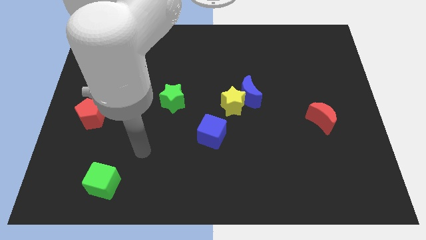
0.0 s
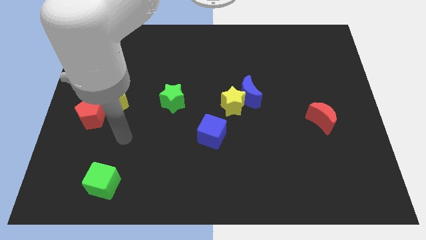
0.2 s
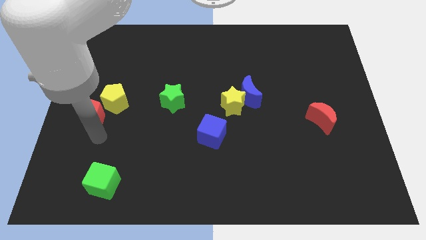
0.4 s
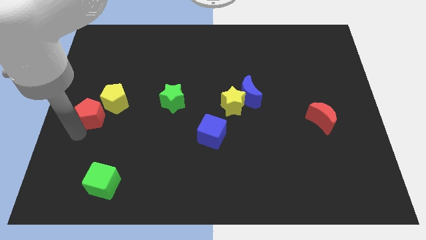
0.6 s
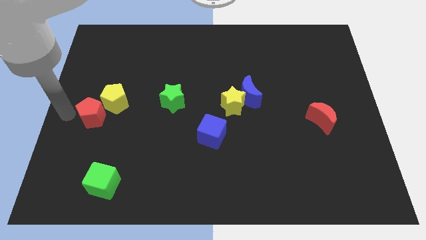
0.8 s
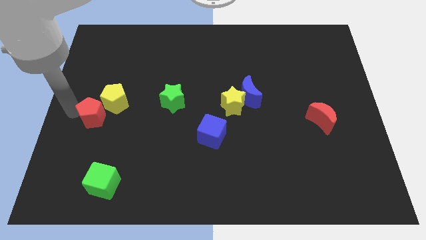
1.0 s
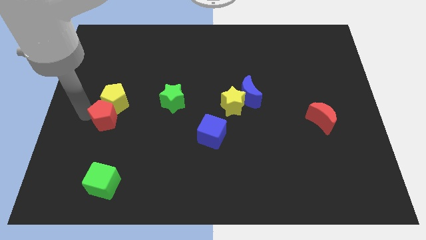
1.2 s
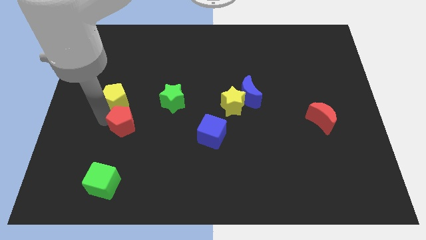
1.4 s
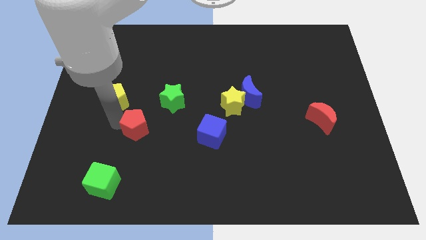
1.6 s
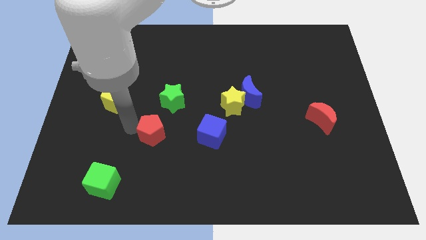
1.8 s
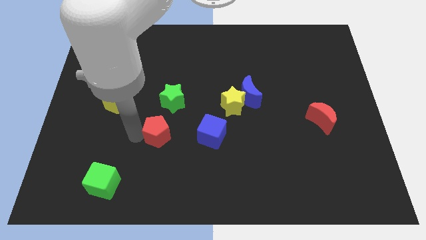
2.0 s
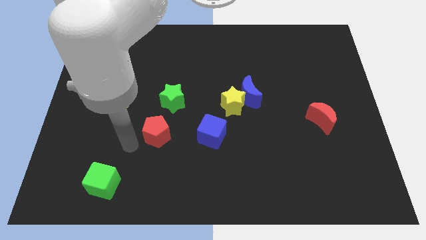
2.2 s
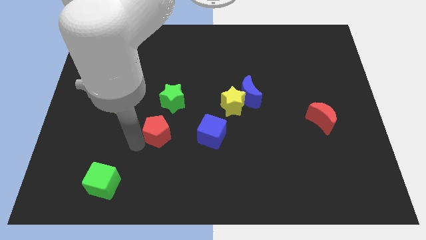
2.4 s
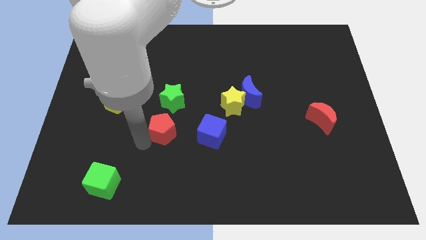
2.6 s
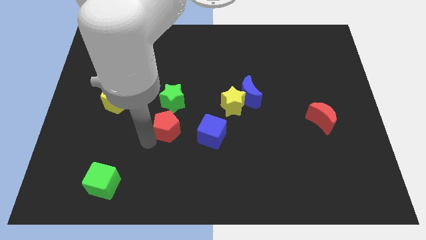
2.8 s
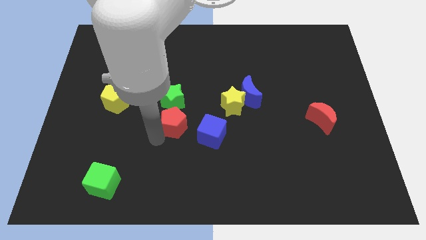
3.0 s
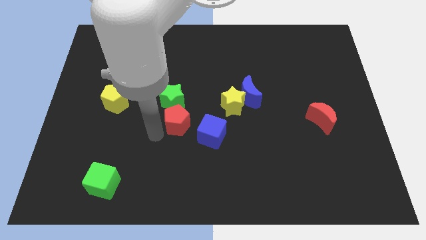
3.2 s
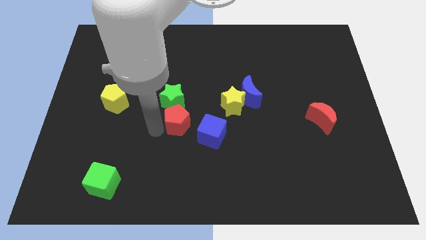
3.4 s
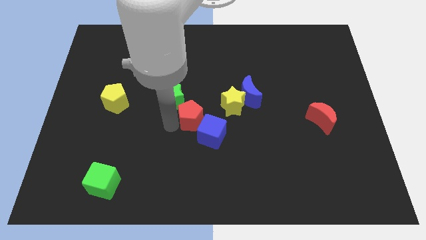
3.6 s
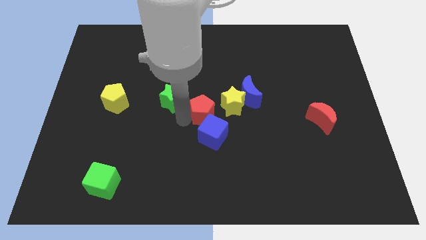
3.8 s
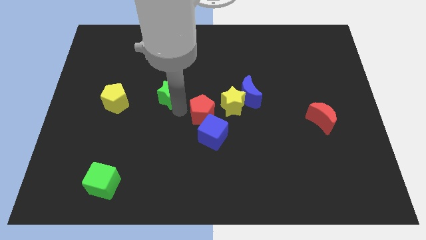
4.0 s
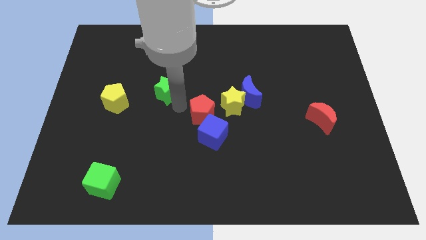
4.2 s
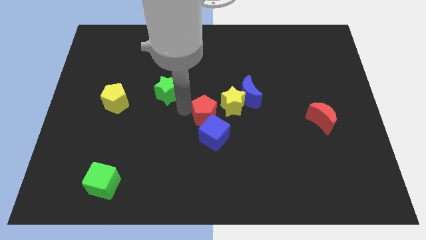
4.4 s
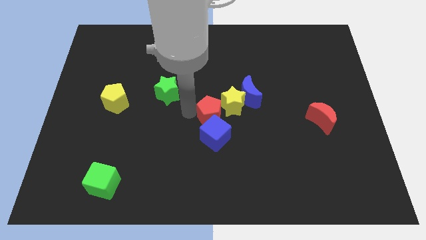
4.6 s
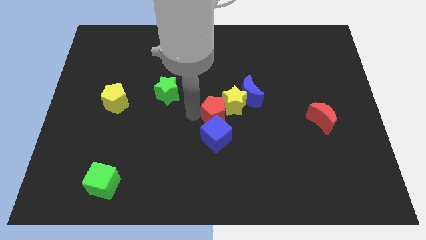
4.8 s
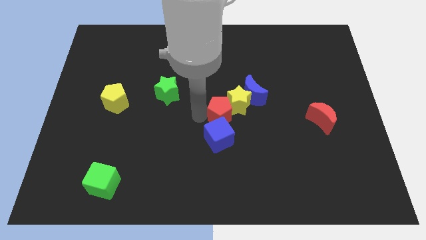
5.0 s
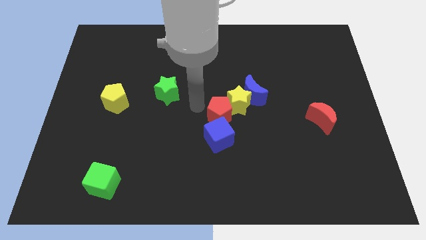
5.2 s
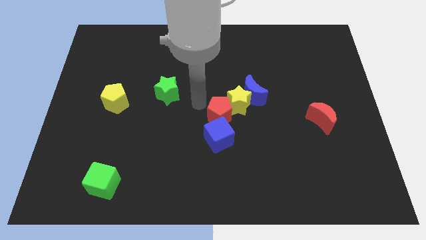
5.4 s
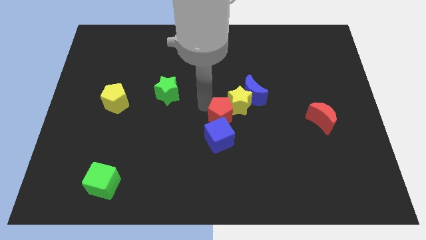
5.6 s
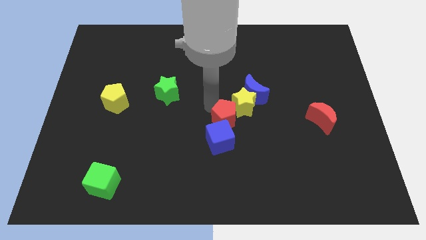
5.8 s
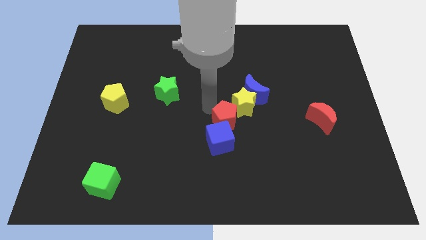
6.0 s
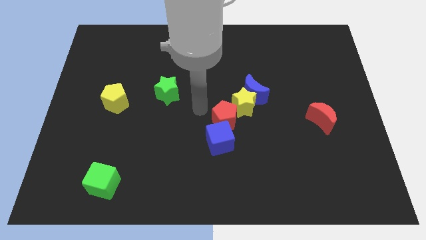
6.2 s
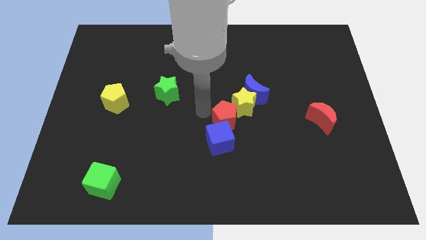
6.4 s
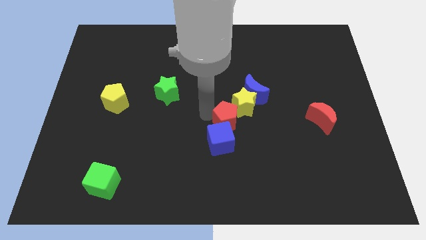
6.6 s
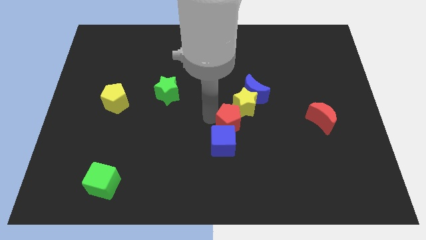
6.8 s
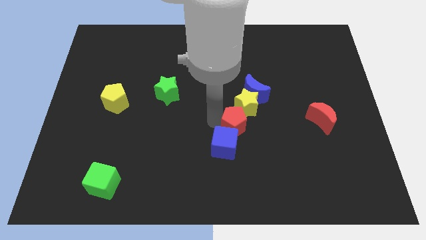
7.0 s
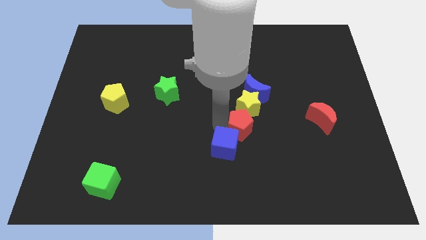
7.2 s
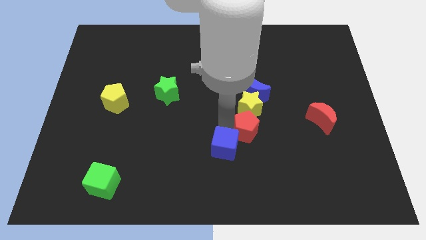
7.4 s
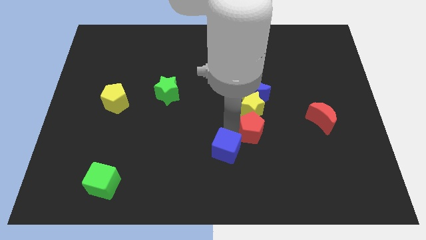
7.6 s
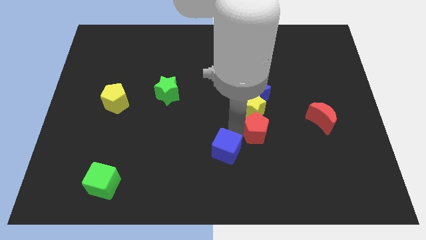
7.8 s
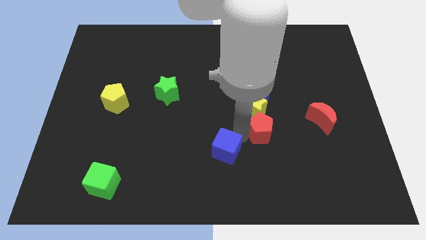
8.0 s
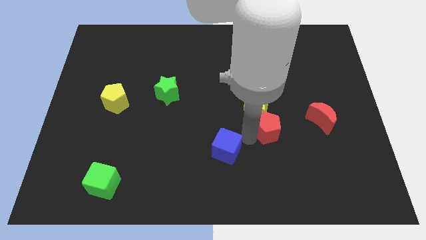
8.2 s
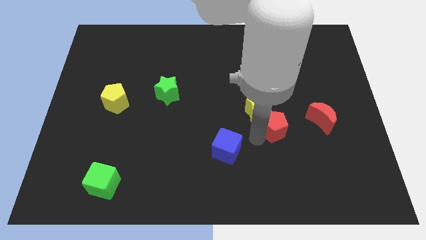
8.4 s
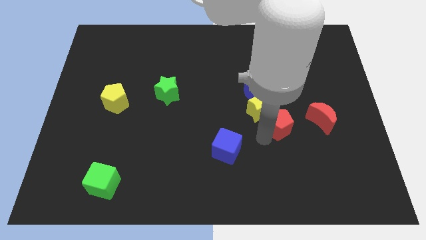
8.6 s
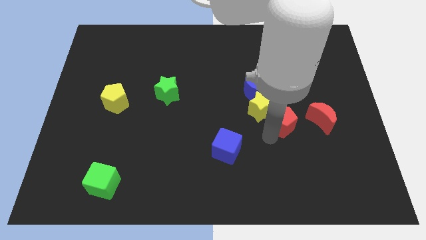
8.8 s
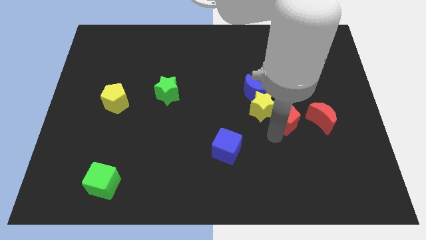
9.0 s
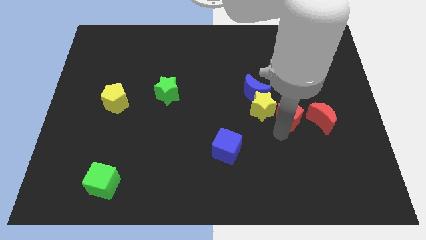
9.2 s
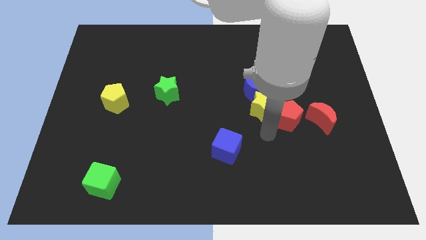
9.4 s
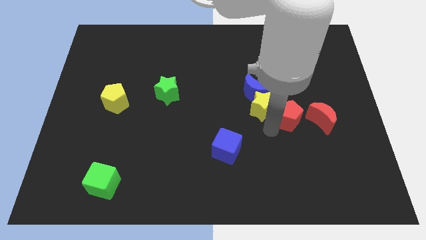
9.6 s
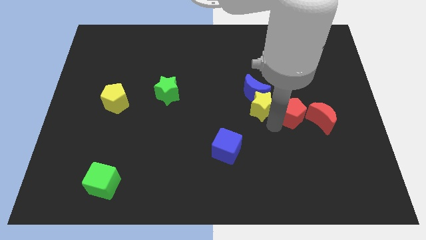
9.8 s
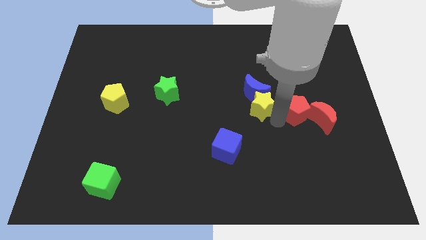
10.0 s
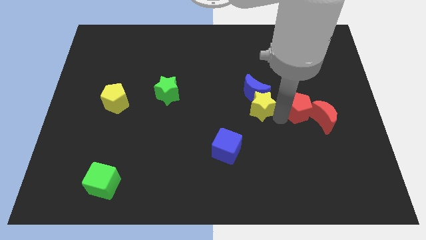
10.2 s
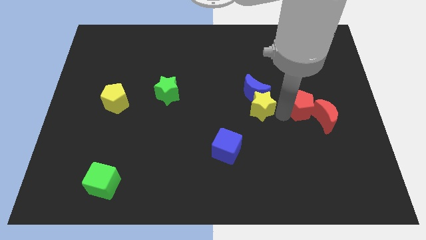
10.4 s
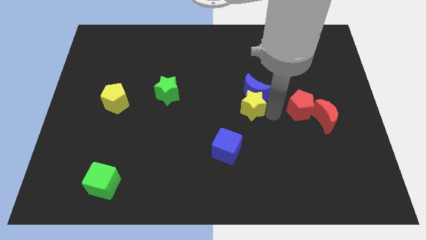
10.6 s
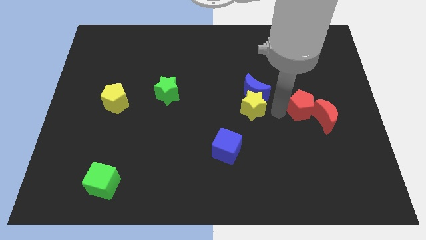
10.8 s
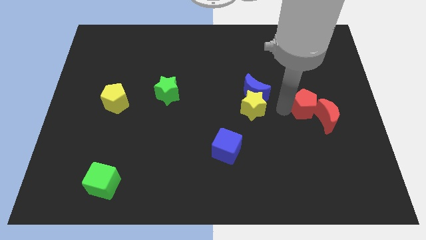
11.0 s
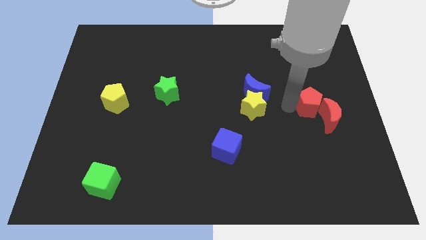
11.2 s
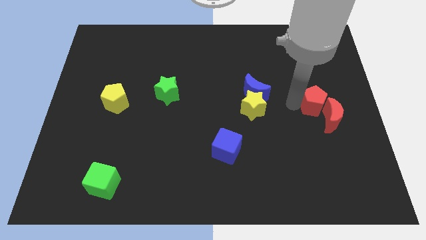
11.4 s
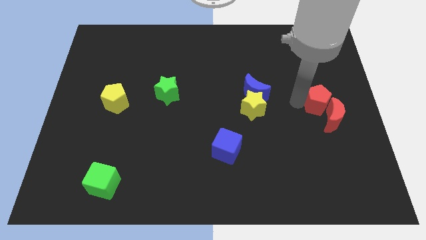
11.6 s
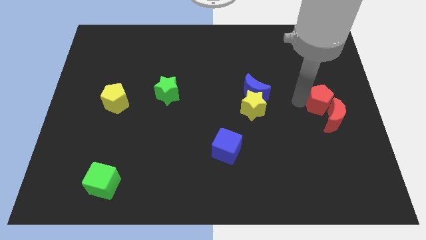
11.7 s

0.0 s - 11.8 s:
put the red pentagon to the right side

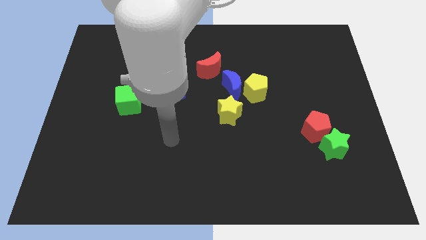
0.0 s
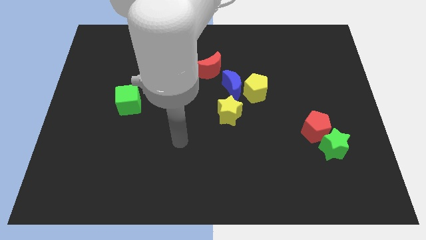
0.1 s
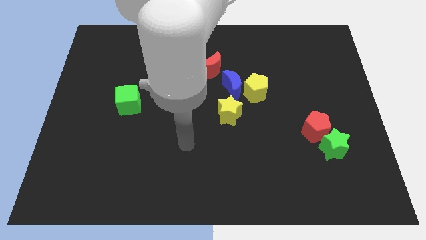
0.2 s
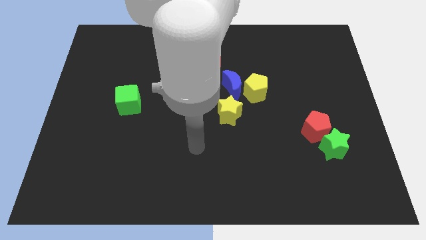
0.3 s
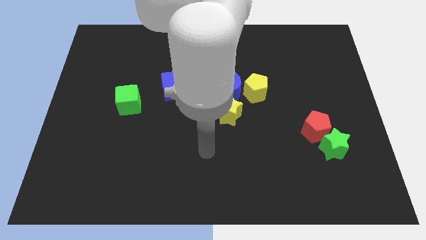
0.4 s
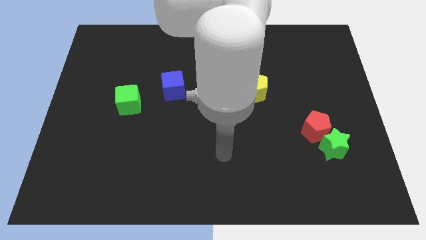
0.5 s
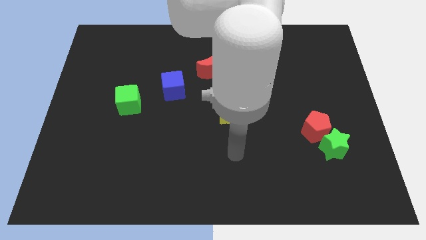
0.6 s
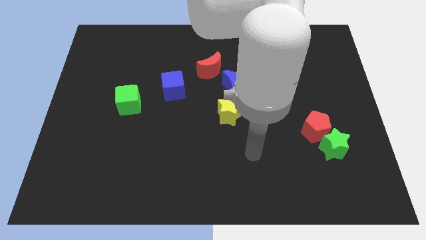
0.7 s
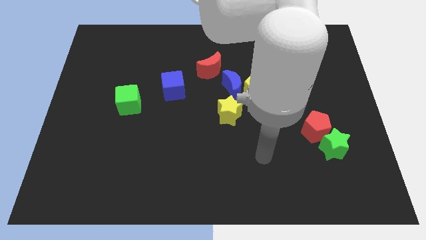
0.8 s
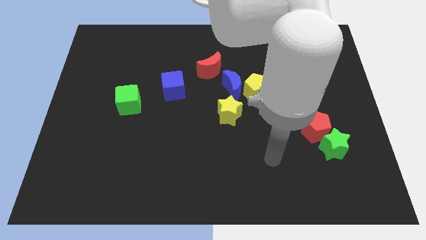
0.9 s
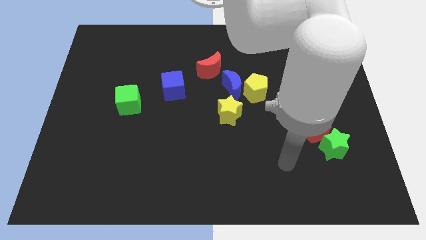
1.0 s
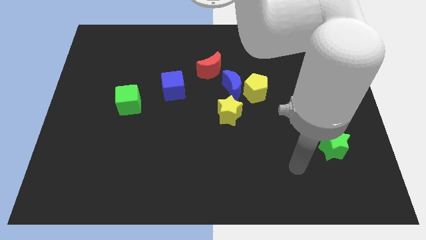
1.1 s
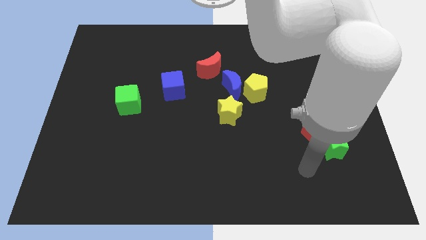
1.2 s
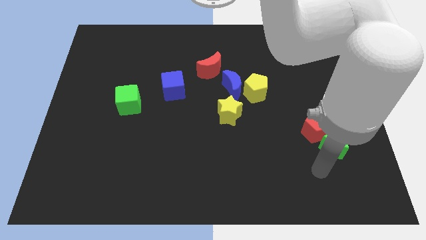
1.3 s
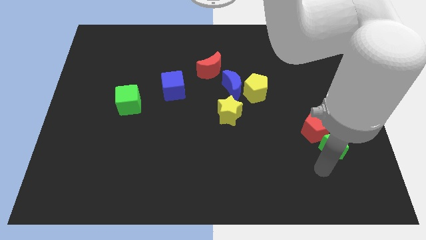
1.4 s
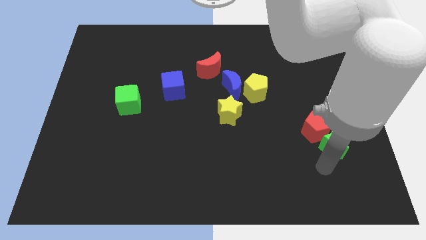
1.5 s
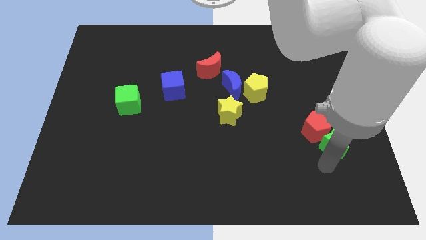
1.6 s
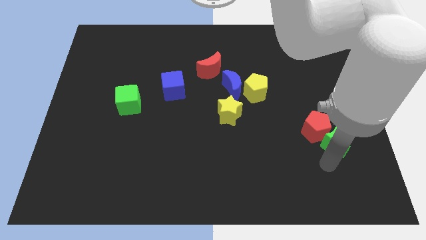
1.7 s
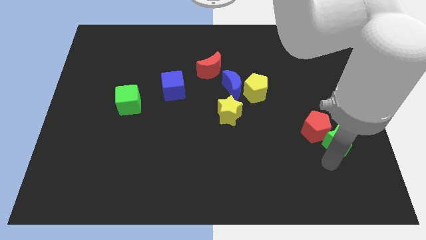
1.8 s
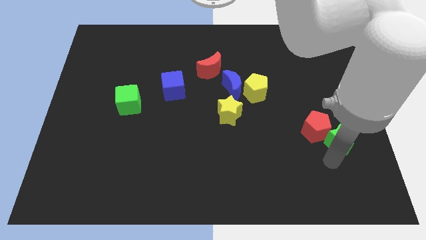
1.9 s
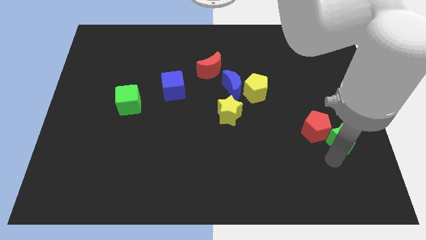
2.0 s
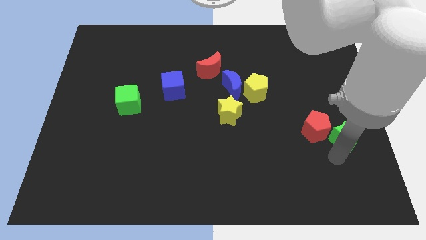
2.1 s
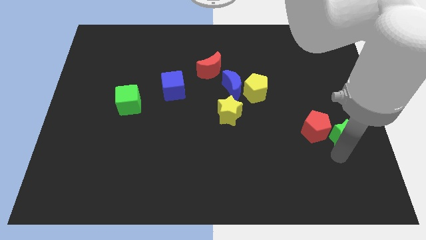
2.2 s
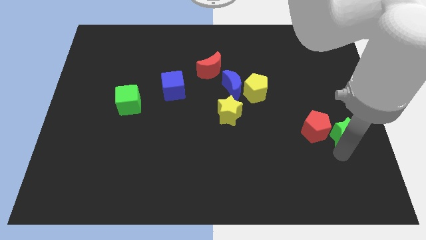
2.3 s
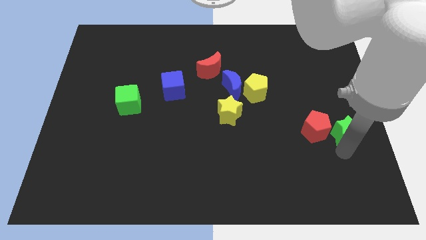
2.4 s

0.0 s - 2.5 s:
put the green star to the right side
